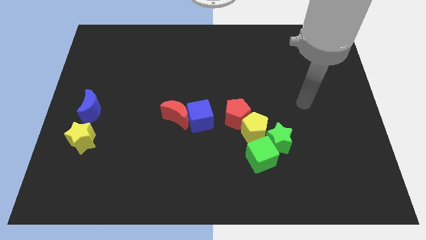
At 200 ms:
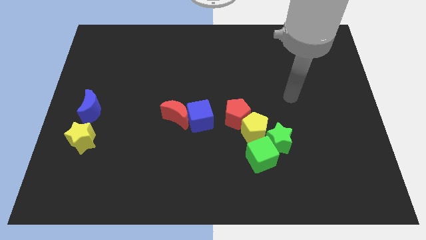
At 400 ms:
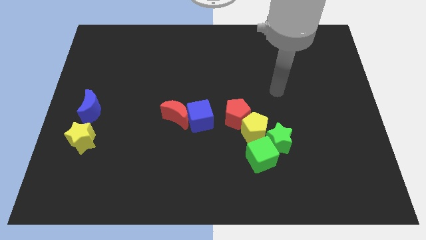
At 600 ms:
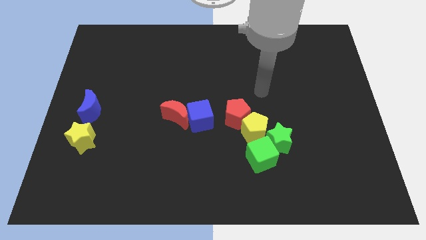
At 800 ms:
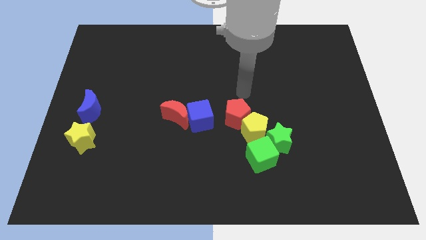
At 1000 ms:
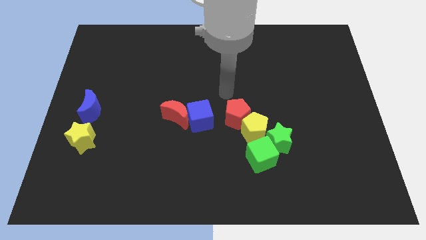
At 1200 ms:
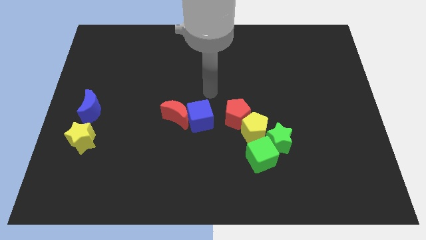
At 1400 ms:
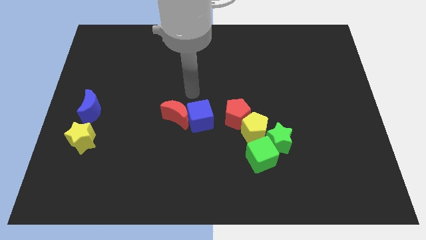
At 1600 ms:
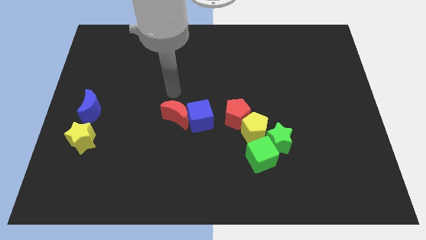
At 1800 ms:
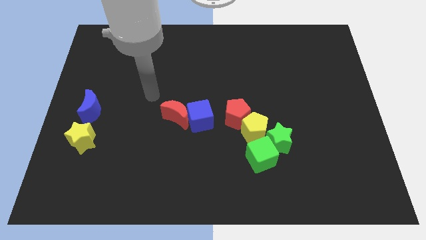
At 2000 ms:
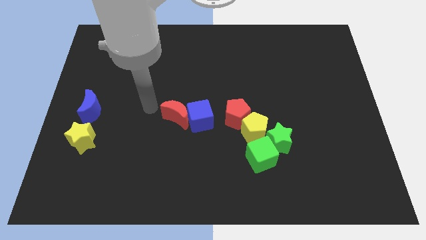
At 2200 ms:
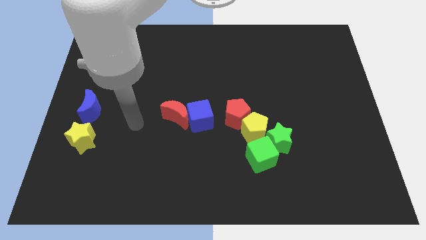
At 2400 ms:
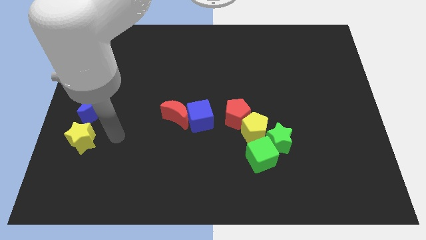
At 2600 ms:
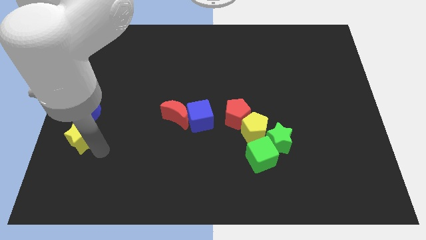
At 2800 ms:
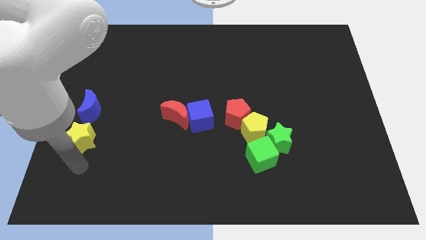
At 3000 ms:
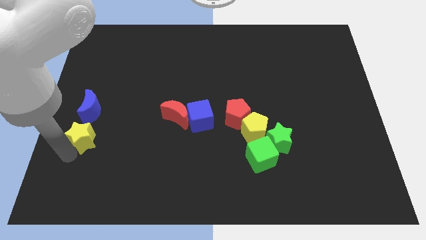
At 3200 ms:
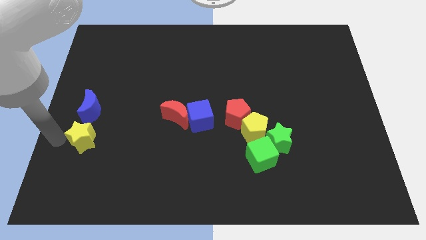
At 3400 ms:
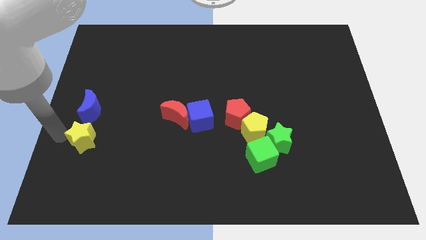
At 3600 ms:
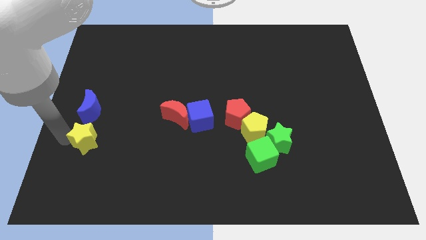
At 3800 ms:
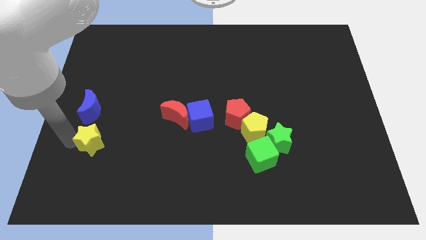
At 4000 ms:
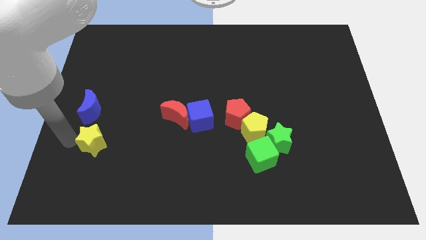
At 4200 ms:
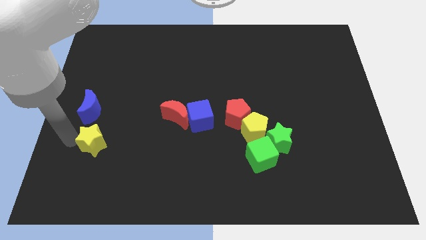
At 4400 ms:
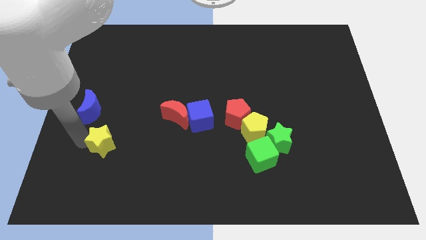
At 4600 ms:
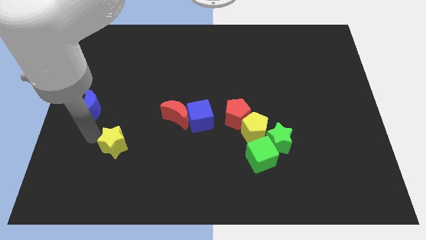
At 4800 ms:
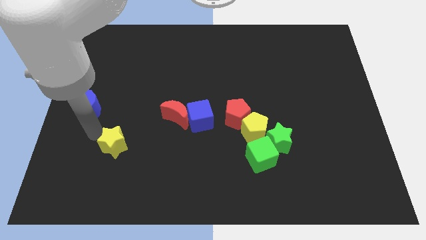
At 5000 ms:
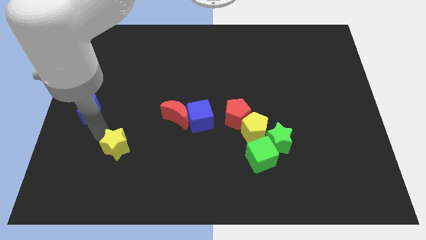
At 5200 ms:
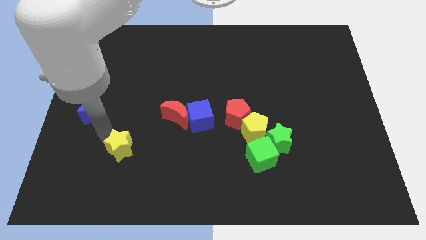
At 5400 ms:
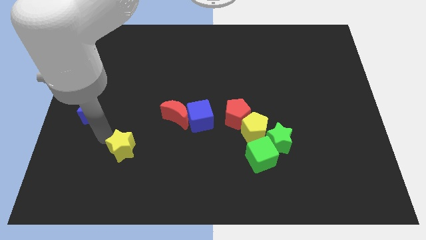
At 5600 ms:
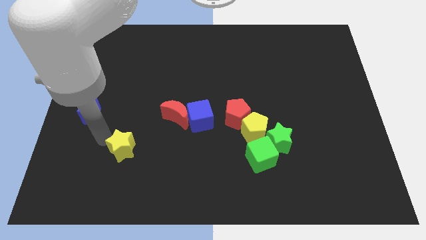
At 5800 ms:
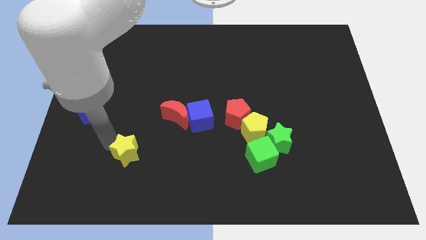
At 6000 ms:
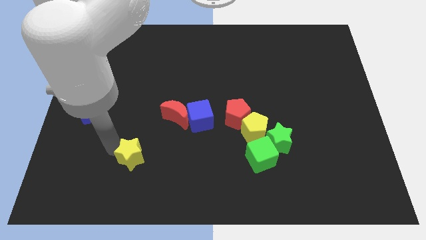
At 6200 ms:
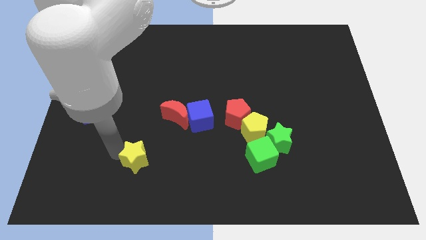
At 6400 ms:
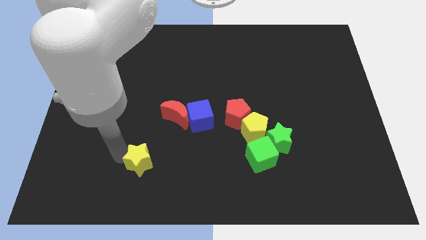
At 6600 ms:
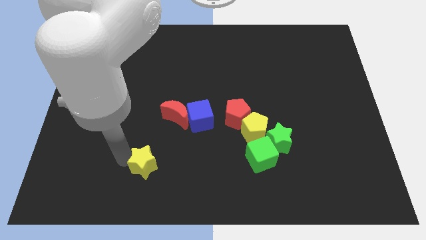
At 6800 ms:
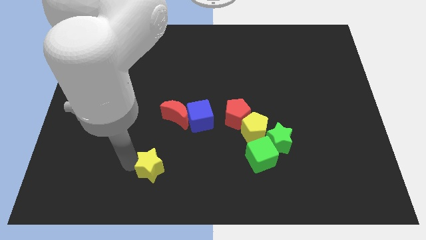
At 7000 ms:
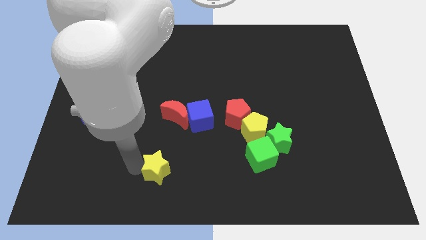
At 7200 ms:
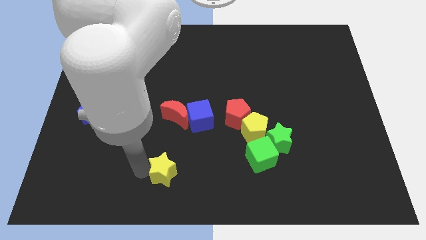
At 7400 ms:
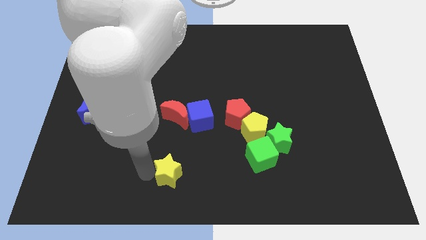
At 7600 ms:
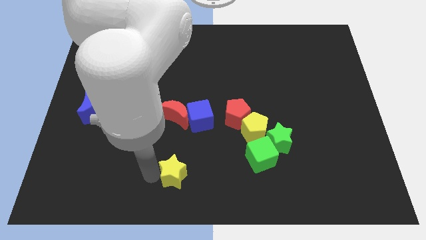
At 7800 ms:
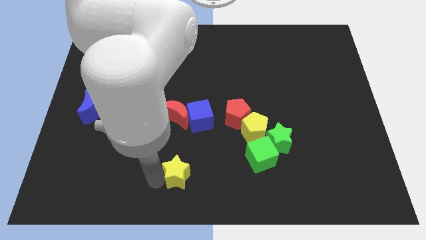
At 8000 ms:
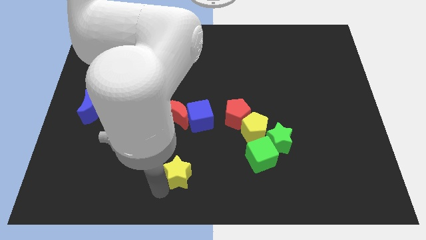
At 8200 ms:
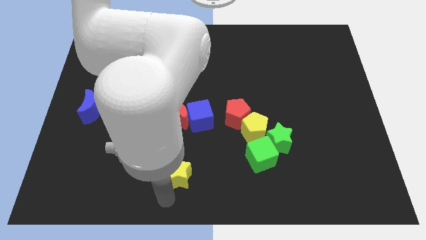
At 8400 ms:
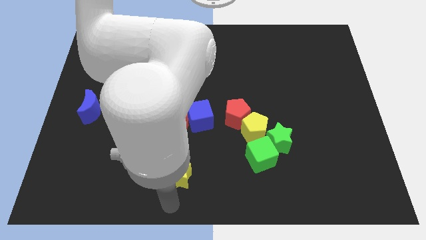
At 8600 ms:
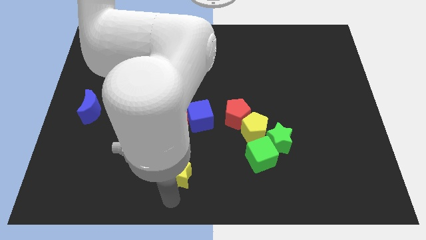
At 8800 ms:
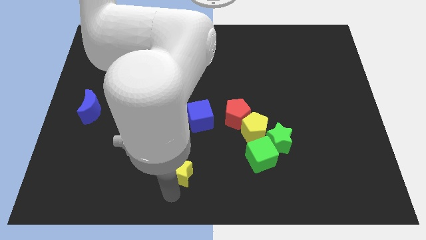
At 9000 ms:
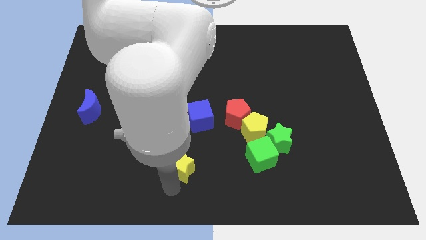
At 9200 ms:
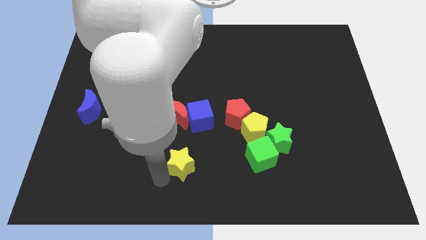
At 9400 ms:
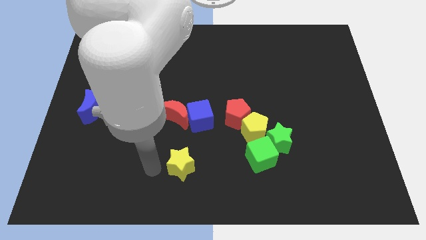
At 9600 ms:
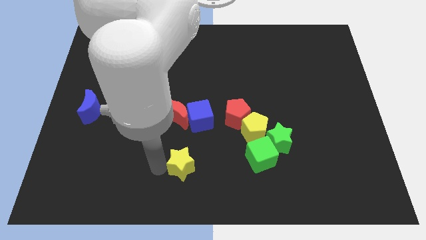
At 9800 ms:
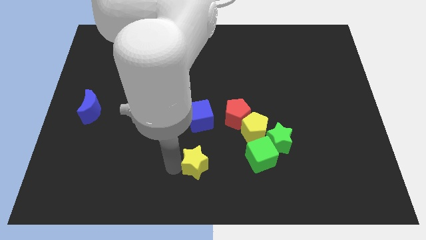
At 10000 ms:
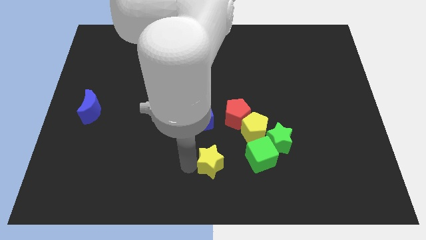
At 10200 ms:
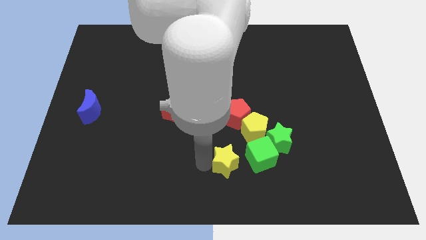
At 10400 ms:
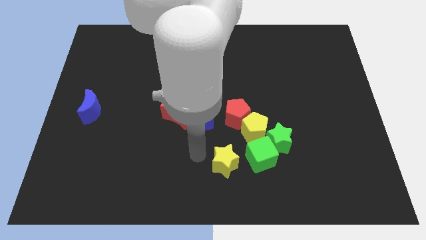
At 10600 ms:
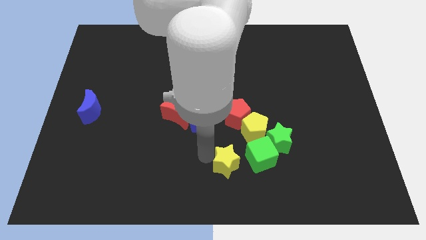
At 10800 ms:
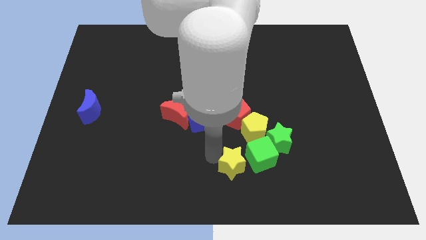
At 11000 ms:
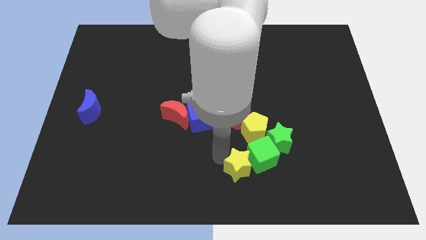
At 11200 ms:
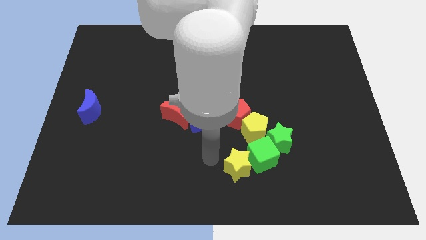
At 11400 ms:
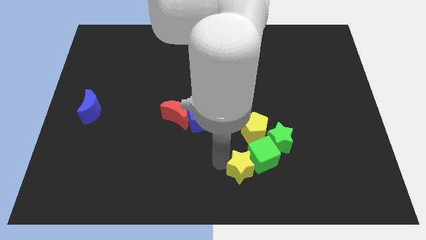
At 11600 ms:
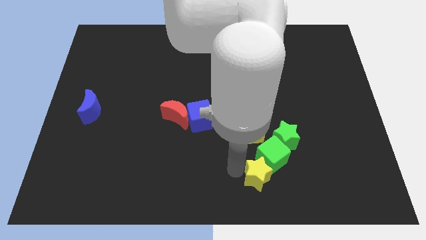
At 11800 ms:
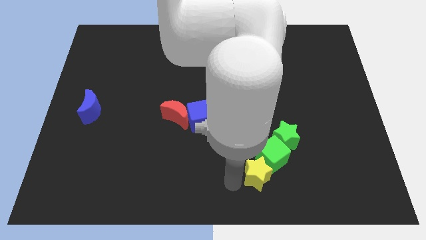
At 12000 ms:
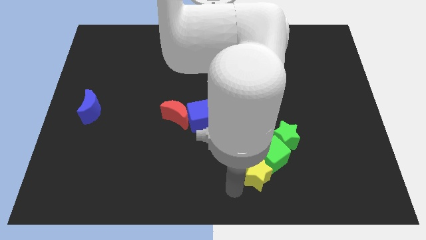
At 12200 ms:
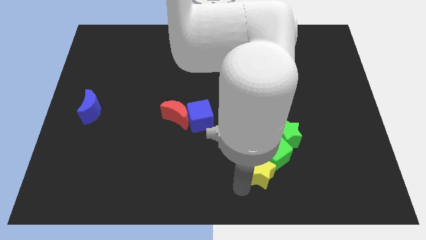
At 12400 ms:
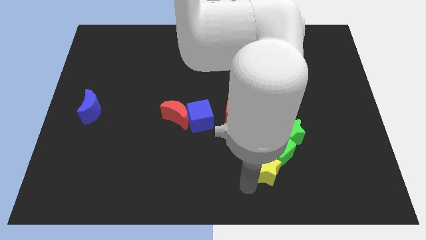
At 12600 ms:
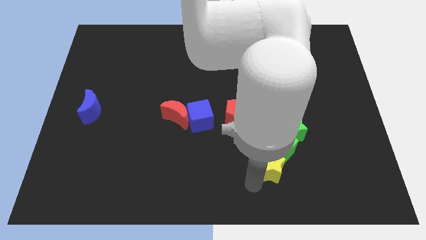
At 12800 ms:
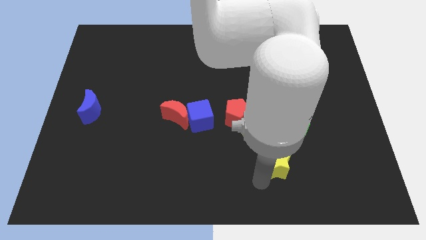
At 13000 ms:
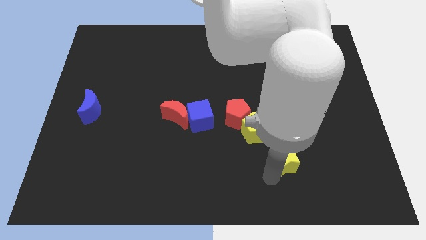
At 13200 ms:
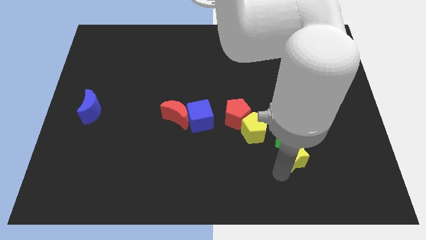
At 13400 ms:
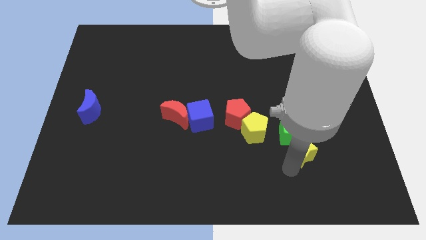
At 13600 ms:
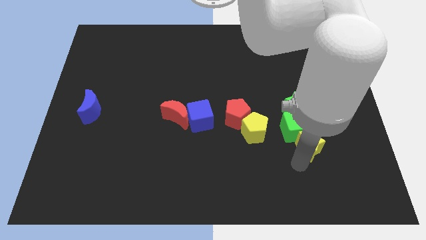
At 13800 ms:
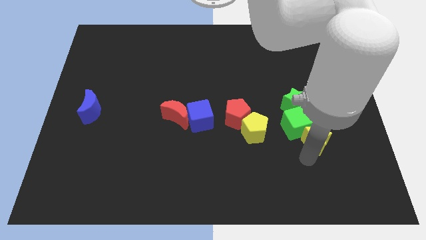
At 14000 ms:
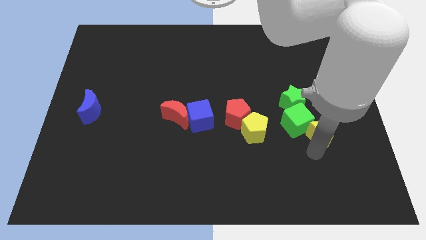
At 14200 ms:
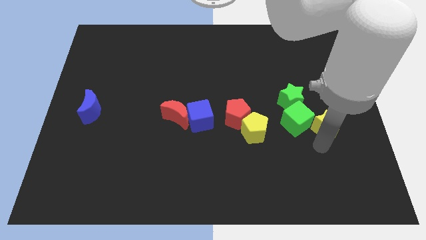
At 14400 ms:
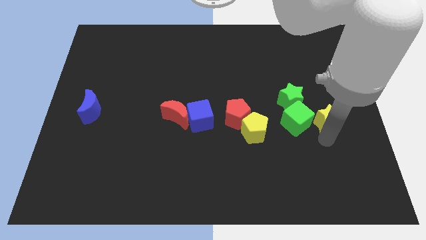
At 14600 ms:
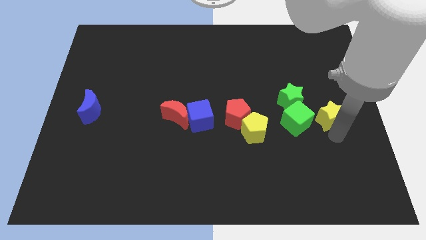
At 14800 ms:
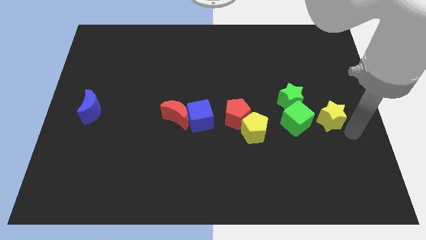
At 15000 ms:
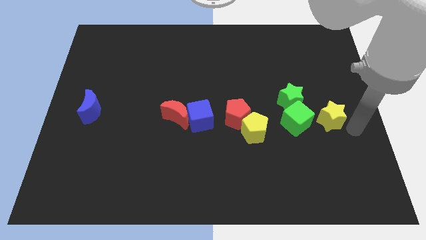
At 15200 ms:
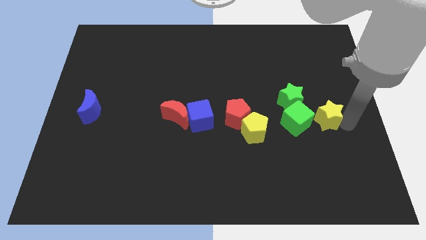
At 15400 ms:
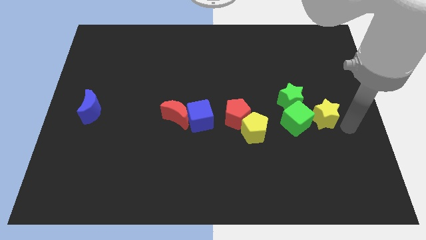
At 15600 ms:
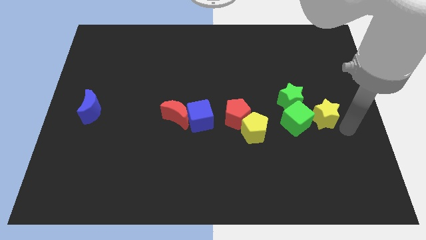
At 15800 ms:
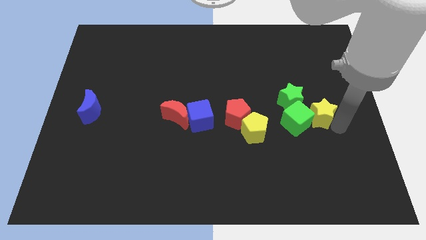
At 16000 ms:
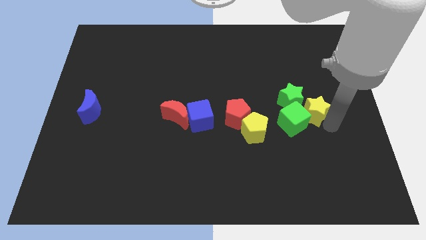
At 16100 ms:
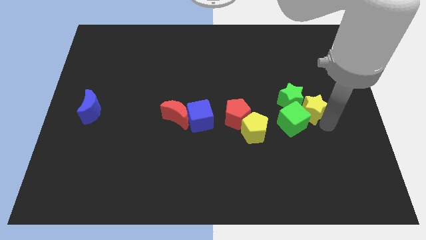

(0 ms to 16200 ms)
move the yellow star to the green star
